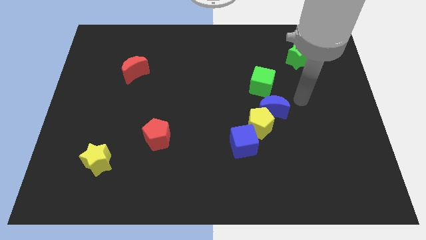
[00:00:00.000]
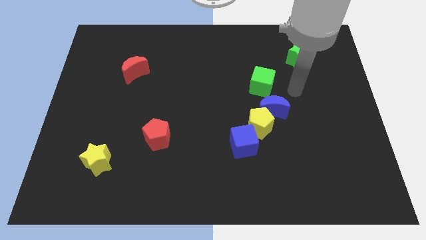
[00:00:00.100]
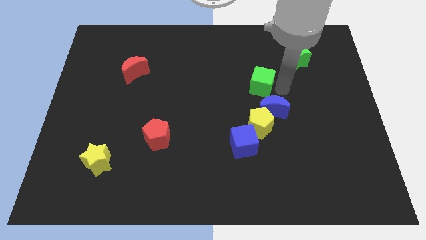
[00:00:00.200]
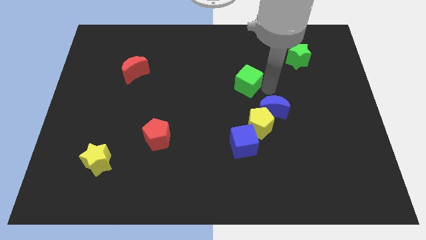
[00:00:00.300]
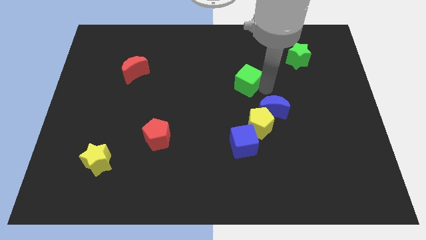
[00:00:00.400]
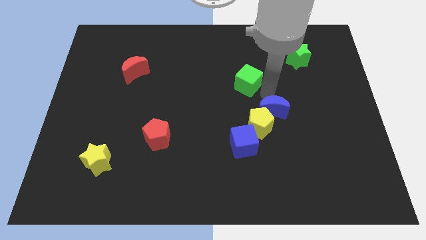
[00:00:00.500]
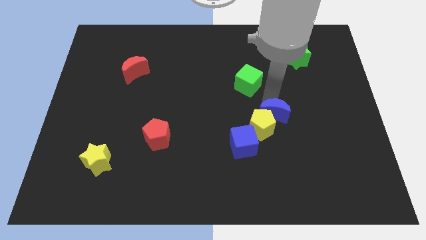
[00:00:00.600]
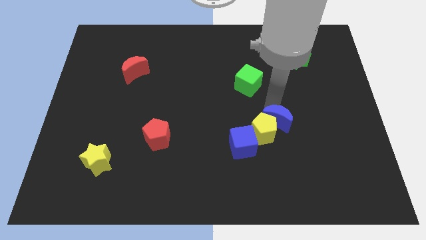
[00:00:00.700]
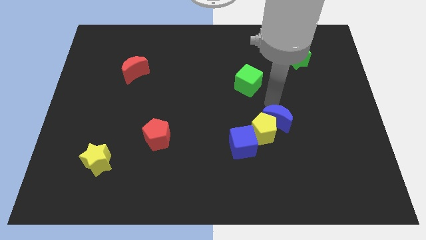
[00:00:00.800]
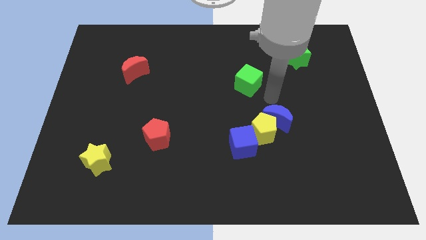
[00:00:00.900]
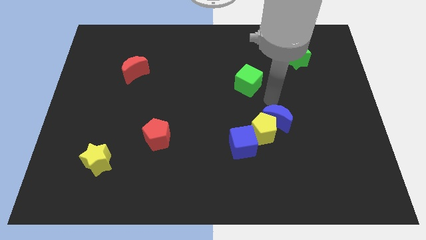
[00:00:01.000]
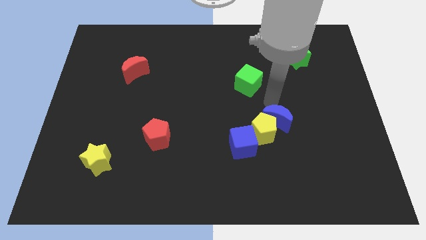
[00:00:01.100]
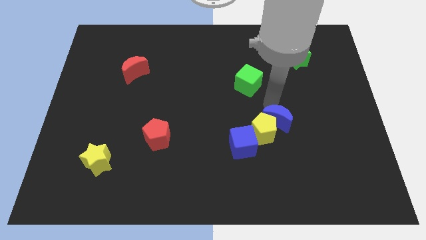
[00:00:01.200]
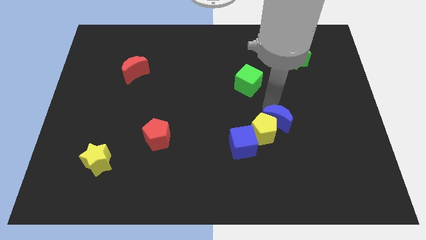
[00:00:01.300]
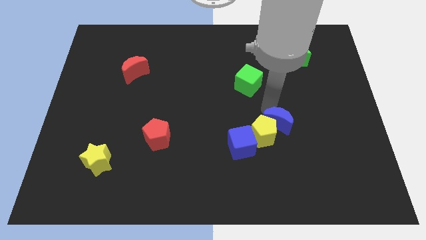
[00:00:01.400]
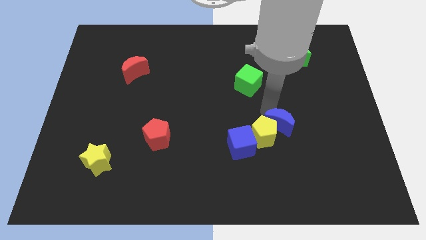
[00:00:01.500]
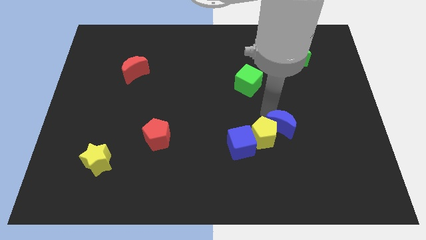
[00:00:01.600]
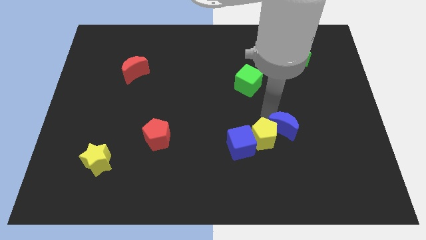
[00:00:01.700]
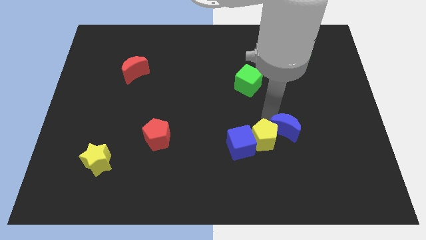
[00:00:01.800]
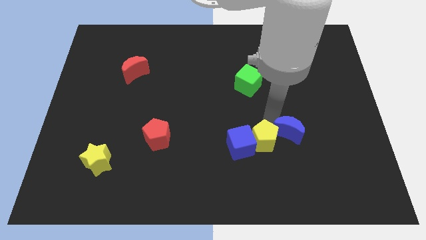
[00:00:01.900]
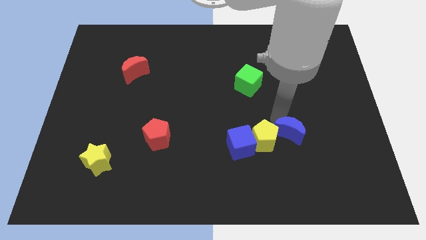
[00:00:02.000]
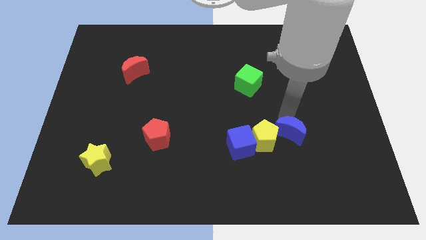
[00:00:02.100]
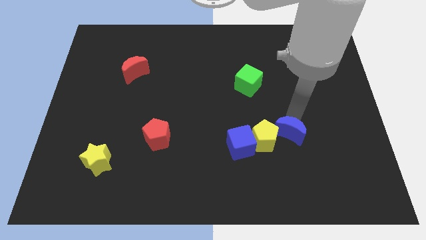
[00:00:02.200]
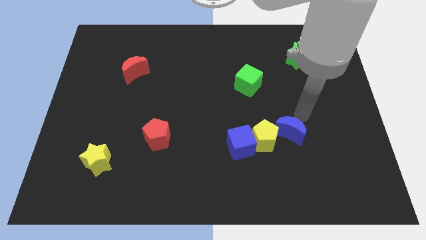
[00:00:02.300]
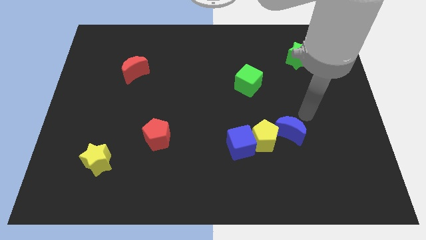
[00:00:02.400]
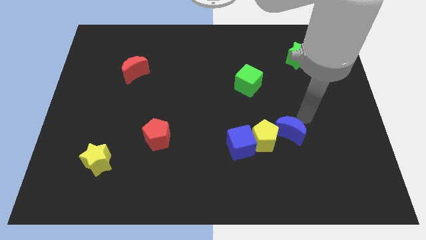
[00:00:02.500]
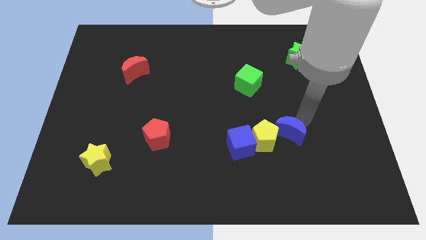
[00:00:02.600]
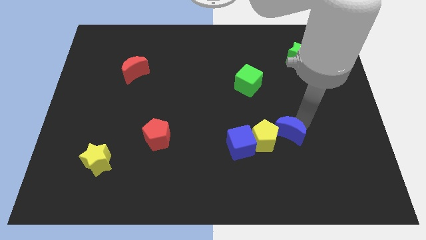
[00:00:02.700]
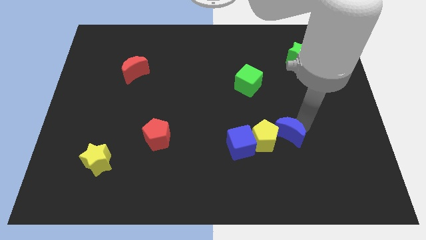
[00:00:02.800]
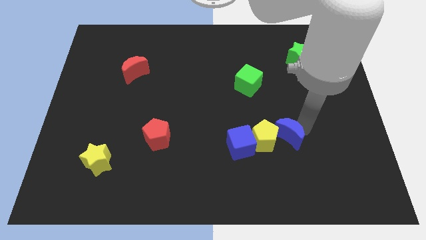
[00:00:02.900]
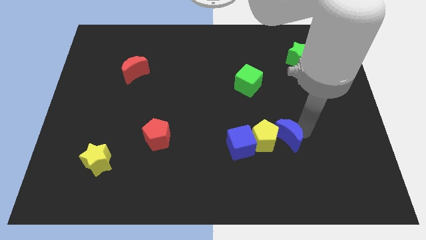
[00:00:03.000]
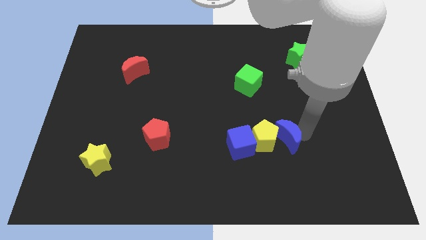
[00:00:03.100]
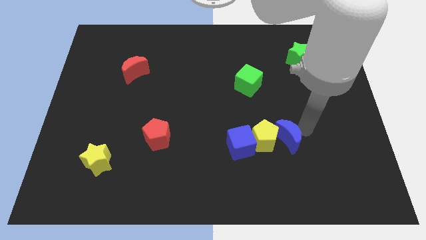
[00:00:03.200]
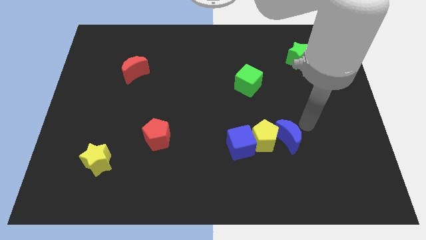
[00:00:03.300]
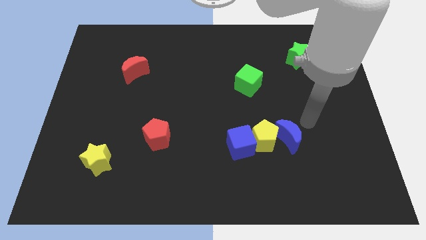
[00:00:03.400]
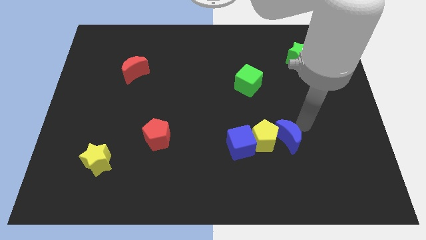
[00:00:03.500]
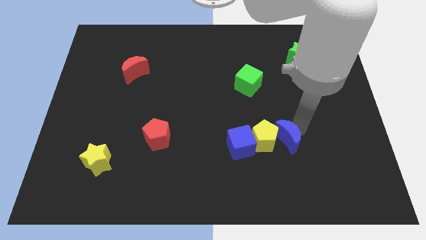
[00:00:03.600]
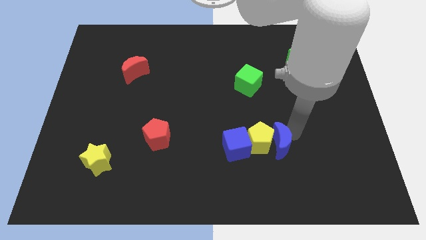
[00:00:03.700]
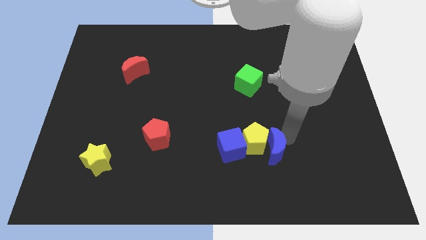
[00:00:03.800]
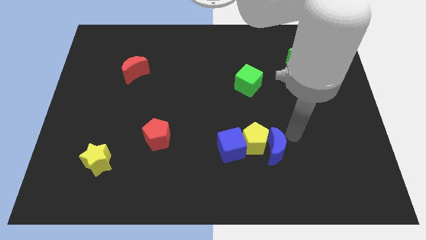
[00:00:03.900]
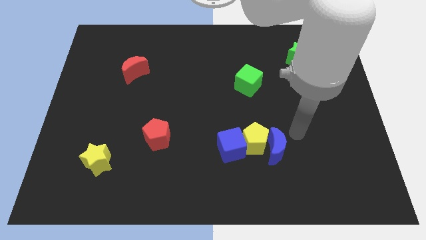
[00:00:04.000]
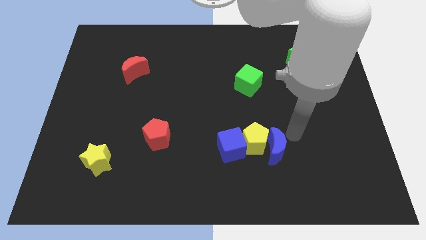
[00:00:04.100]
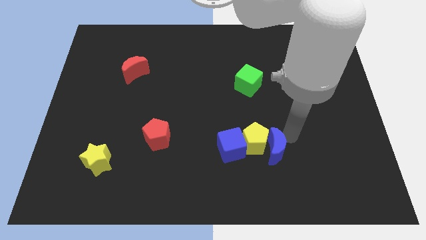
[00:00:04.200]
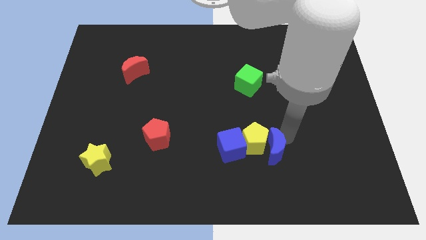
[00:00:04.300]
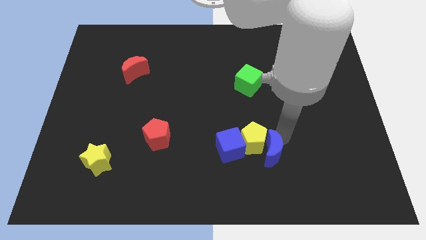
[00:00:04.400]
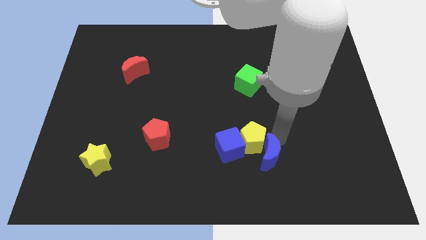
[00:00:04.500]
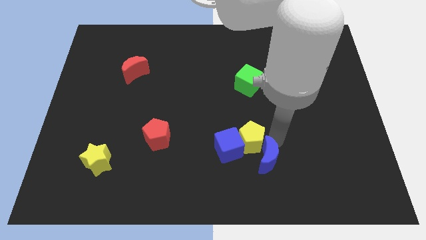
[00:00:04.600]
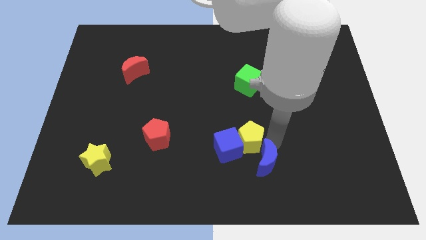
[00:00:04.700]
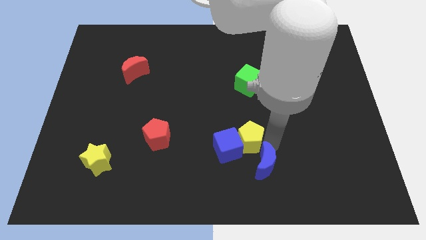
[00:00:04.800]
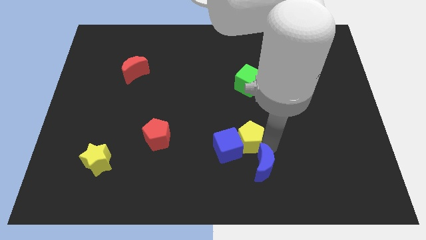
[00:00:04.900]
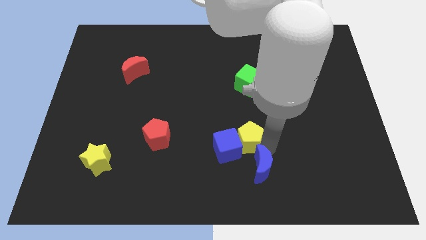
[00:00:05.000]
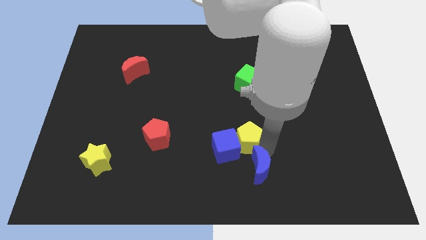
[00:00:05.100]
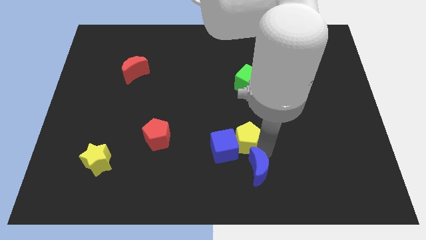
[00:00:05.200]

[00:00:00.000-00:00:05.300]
push the blue moon to the bottom side
